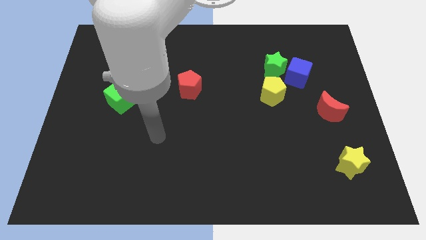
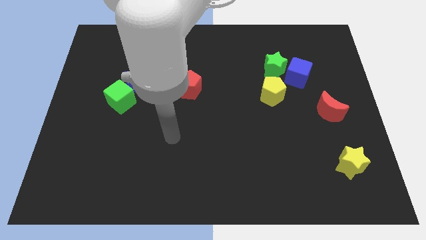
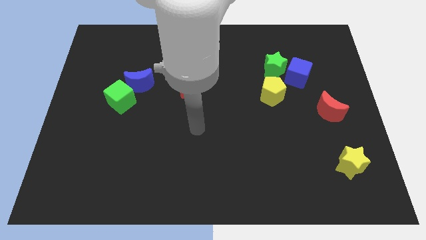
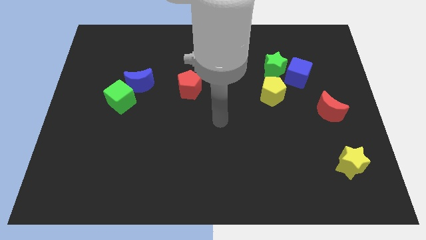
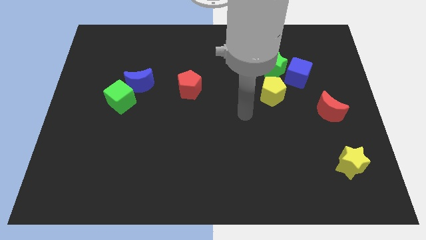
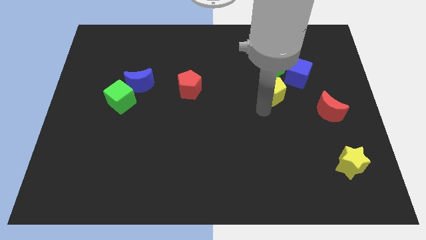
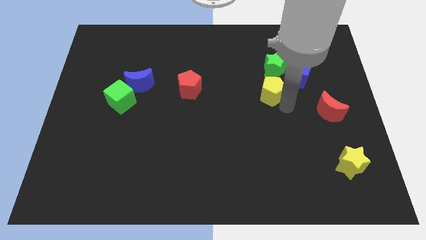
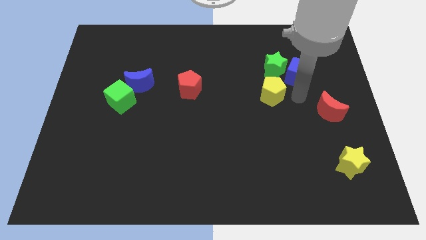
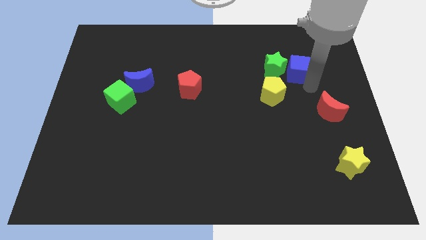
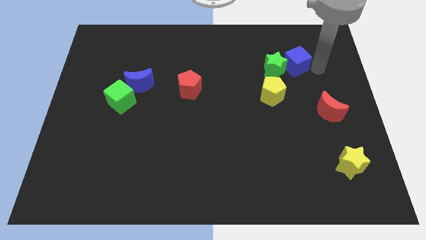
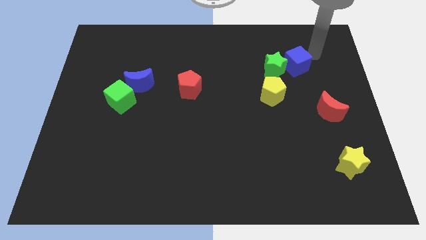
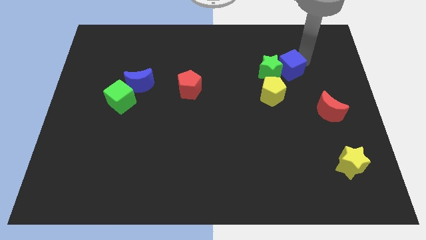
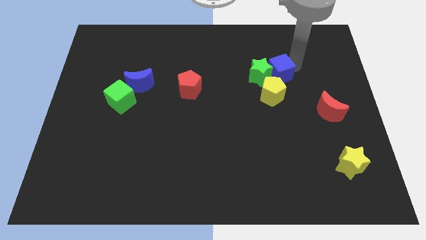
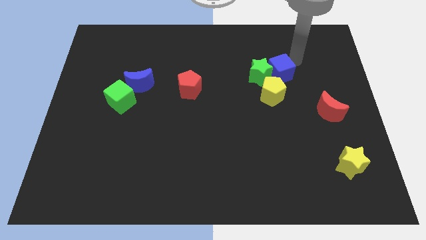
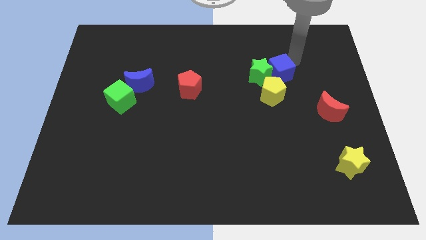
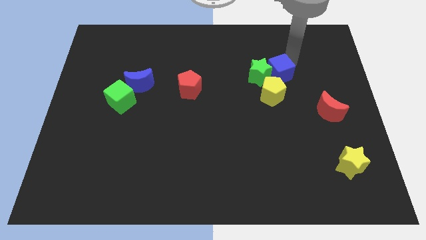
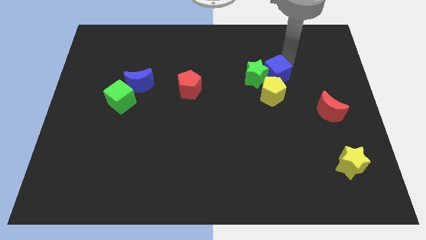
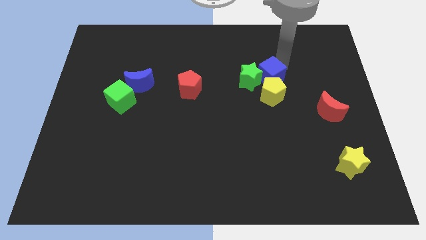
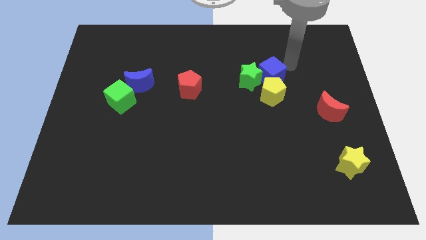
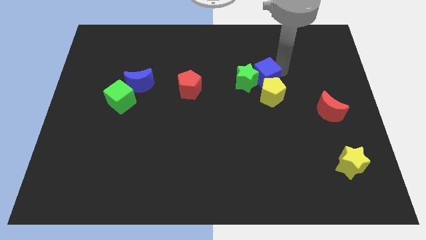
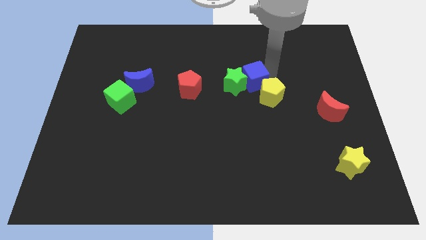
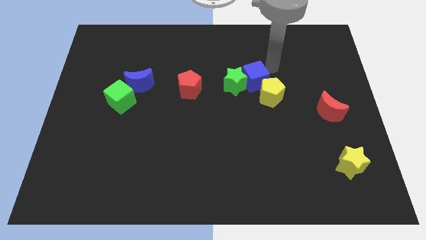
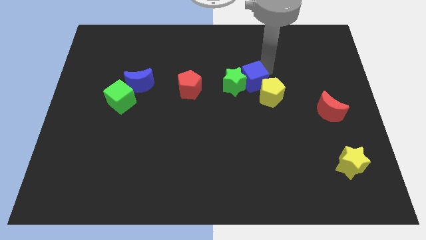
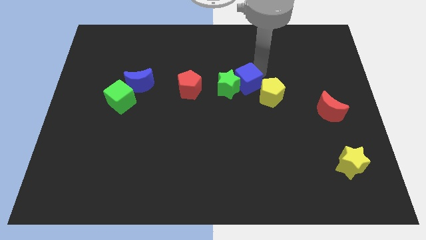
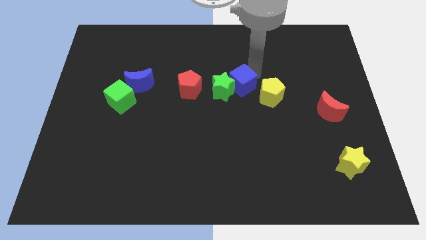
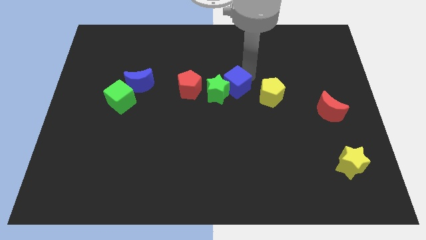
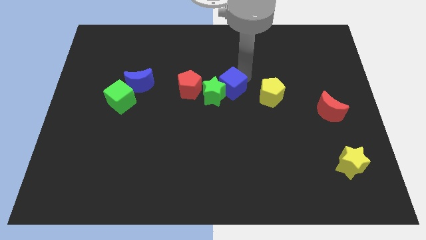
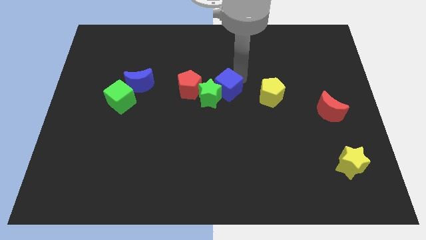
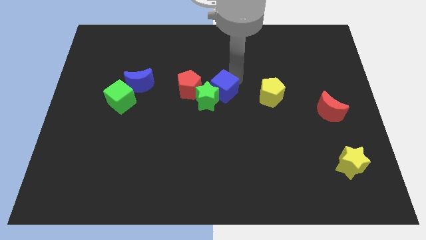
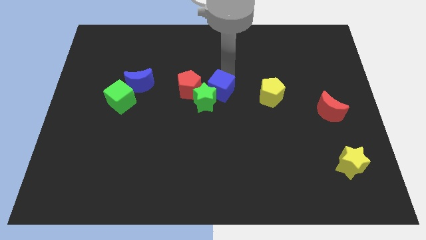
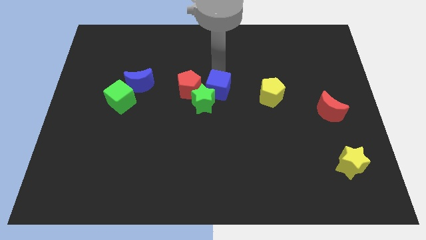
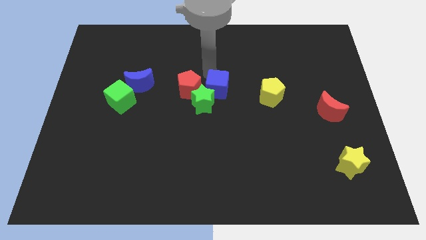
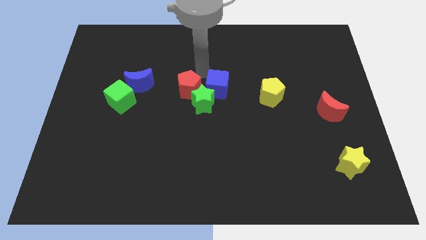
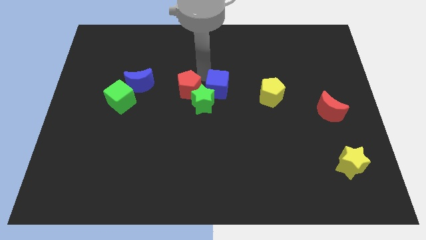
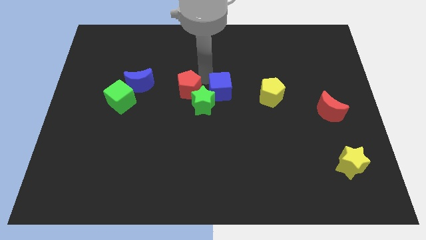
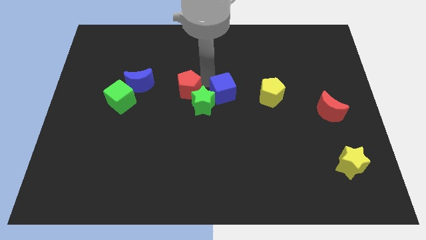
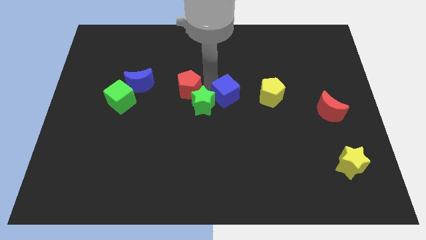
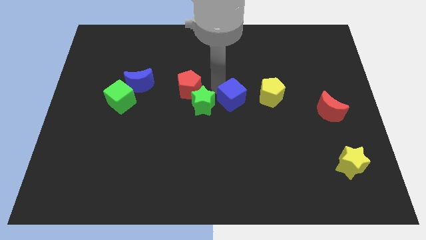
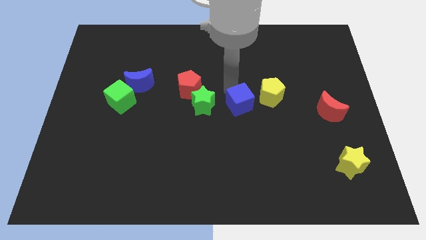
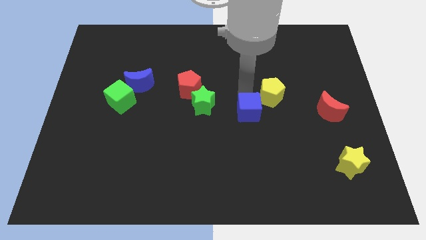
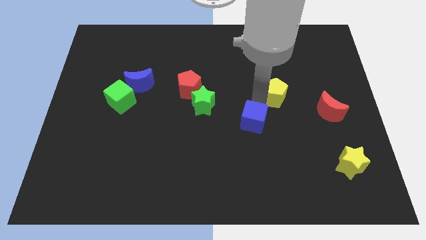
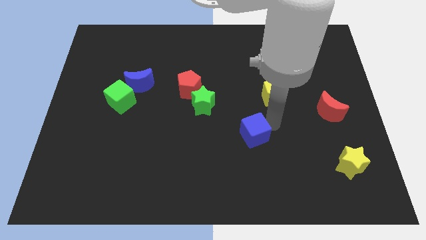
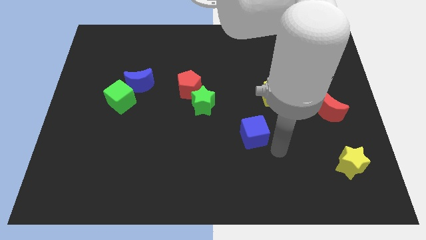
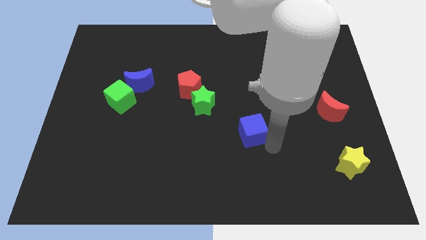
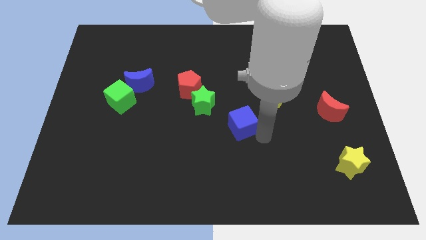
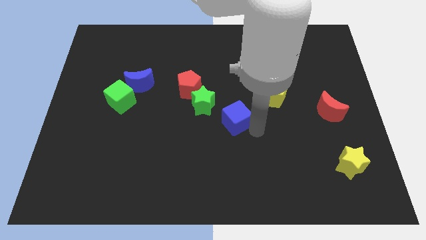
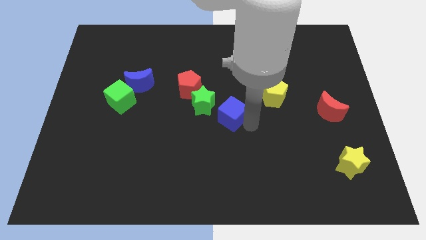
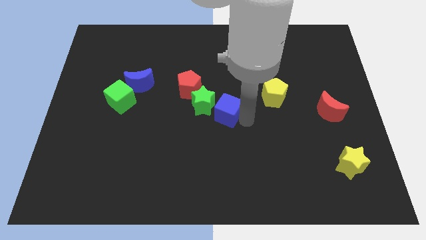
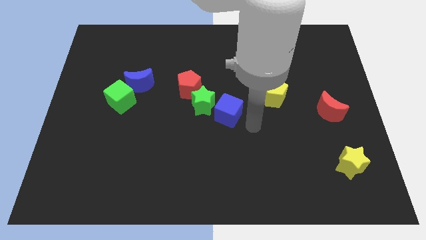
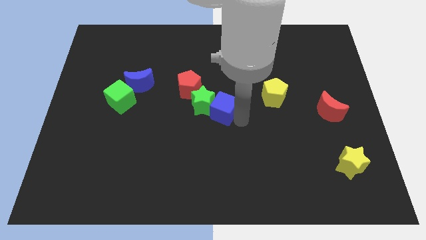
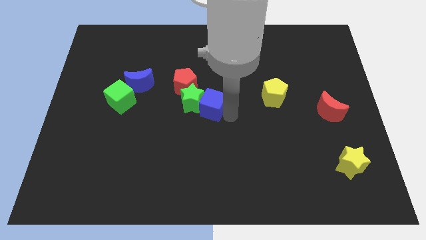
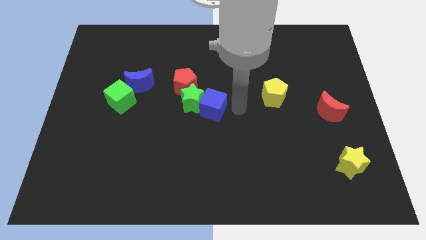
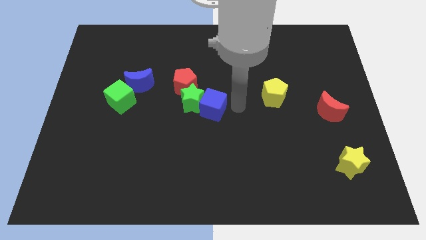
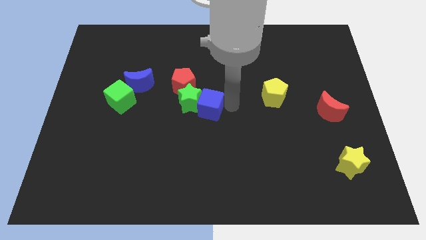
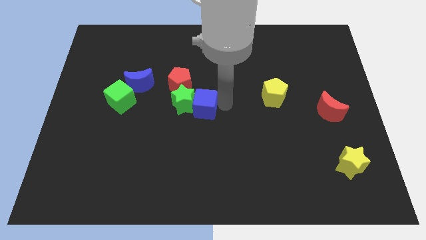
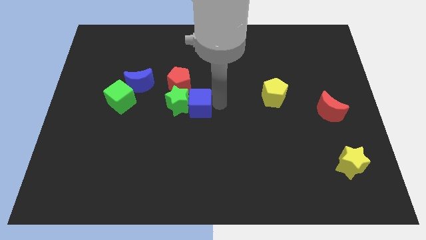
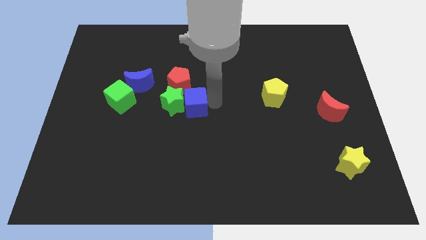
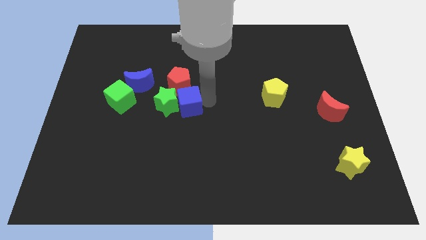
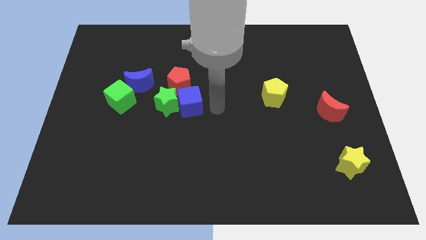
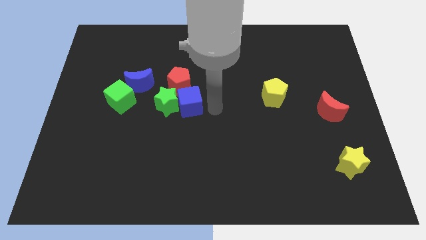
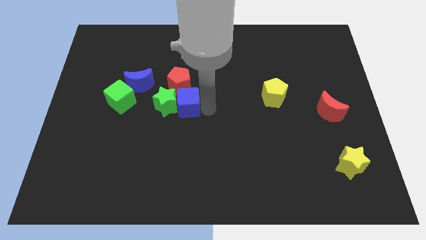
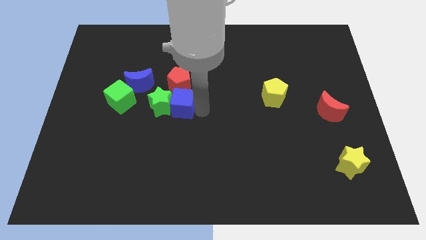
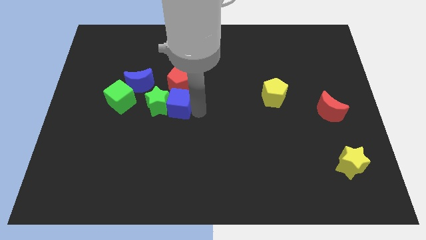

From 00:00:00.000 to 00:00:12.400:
put the blue cube to the bottom right of the blue moon

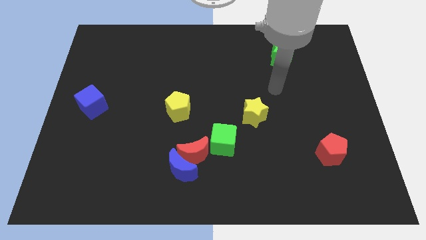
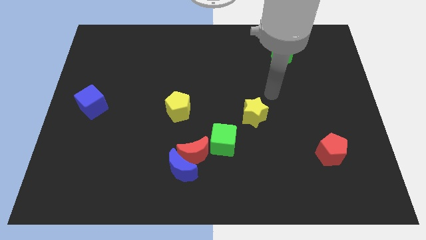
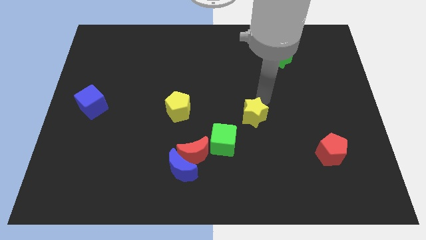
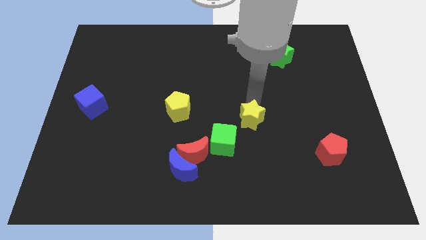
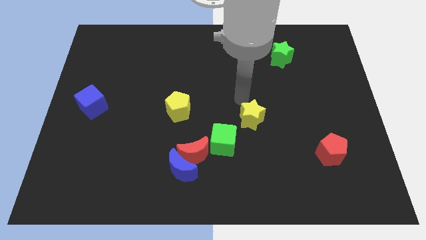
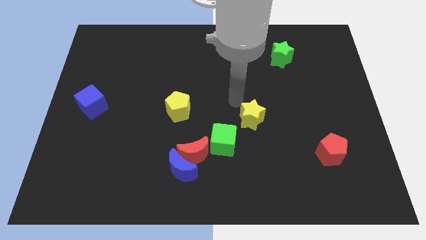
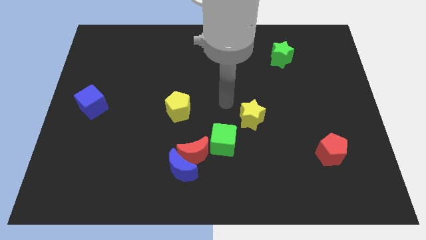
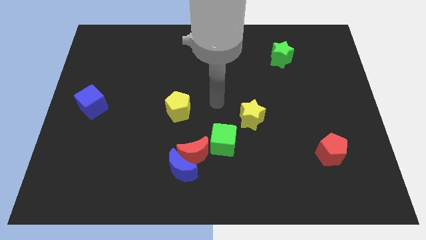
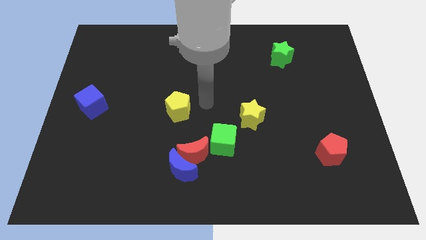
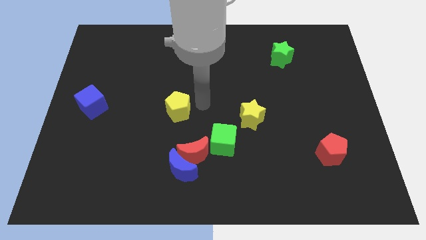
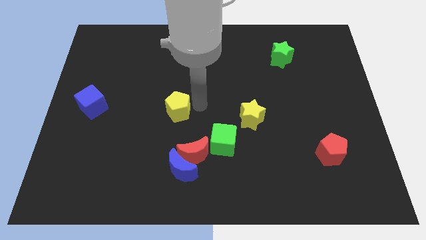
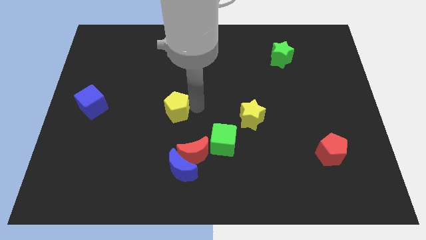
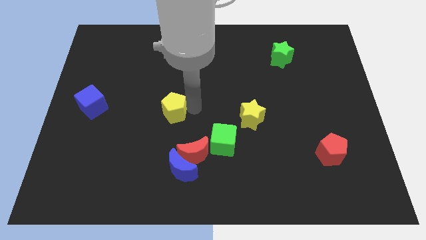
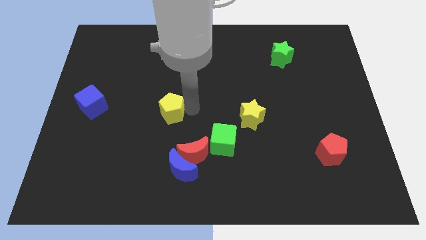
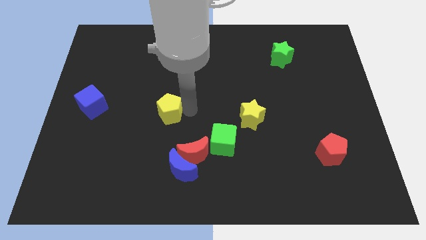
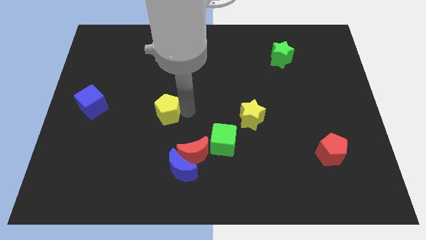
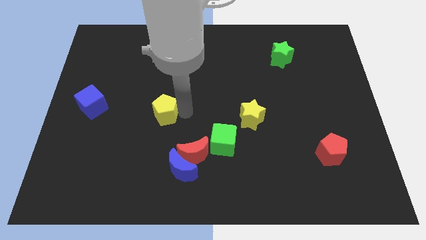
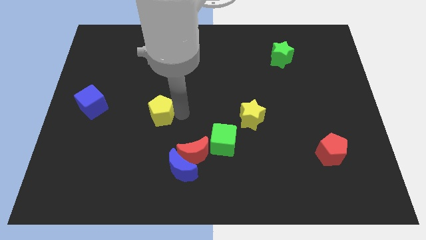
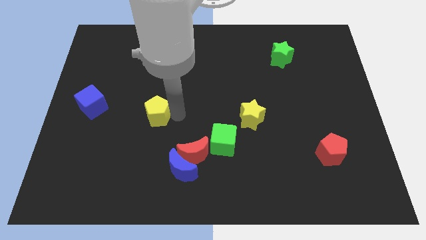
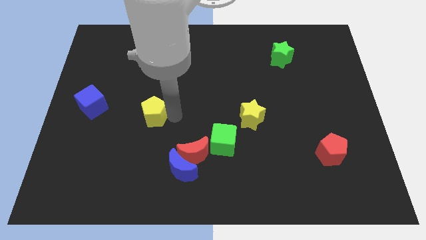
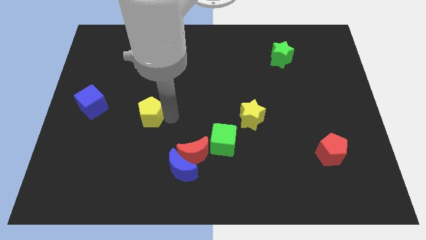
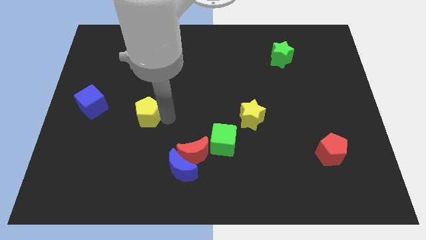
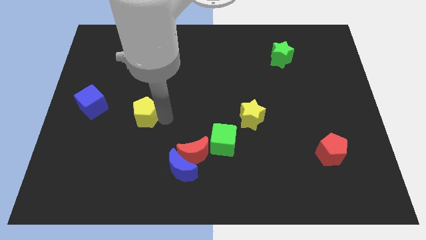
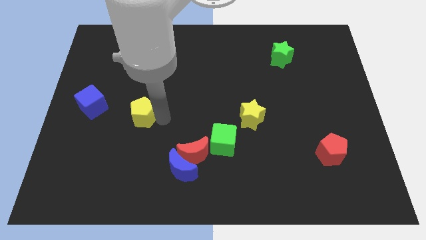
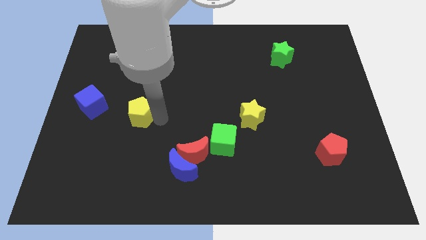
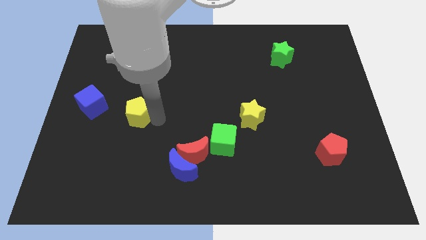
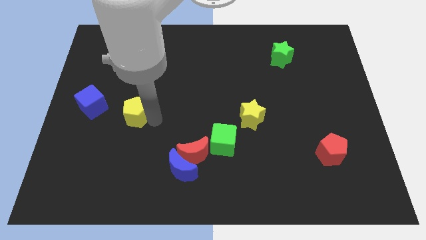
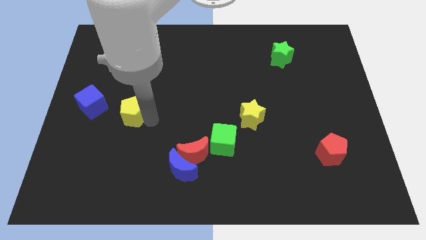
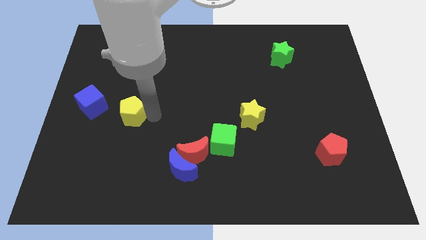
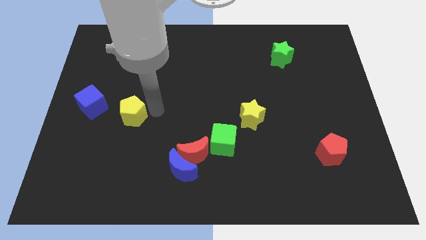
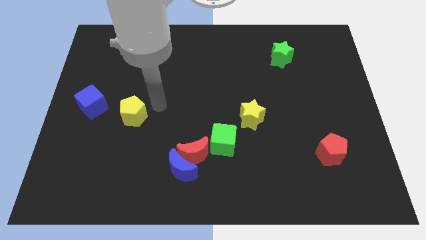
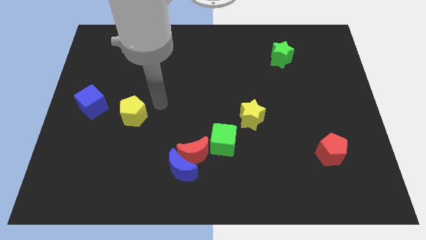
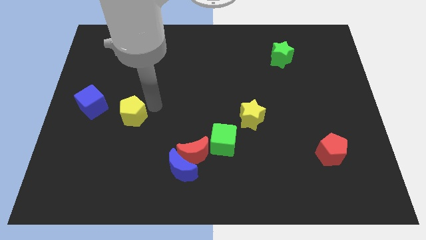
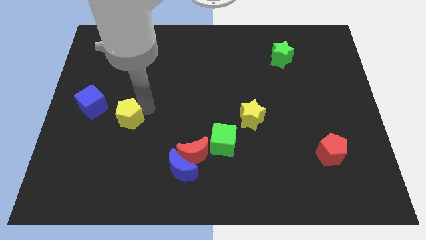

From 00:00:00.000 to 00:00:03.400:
slide the yellow pentagon to the bottom right of the blue cube
